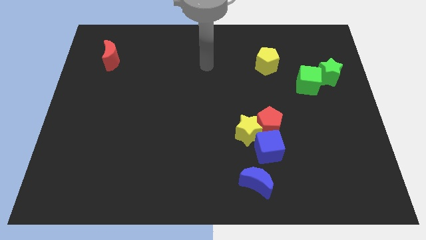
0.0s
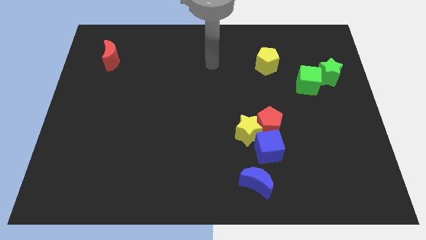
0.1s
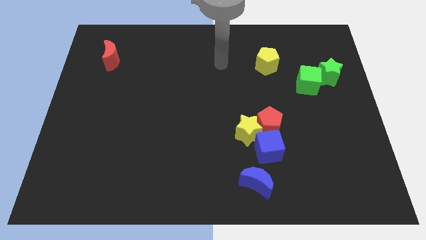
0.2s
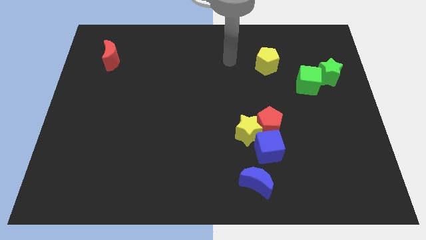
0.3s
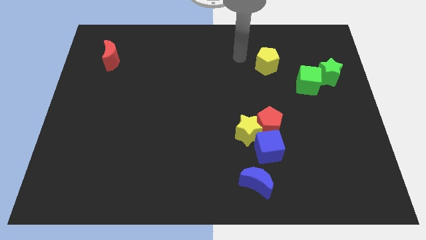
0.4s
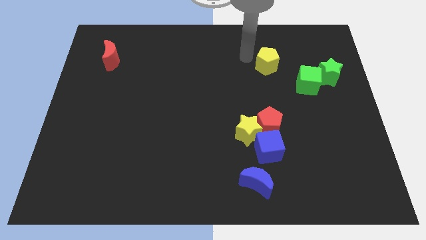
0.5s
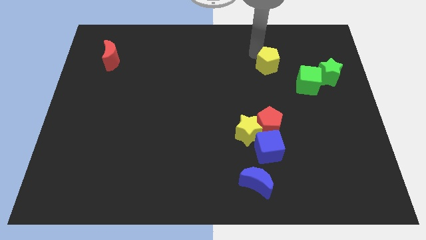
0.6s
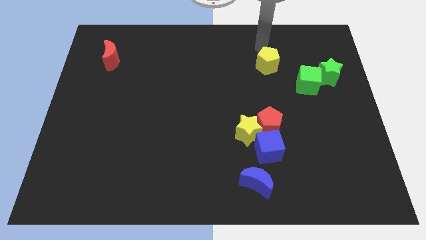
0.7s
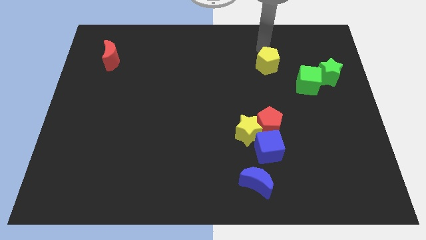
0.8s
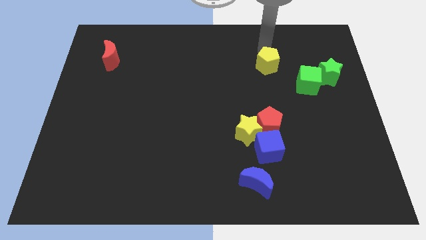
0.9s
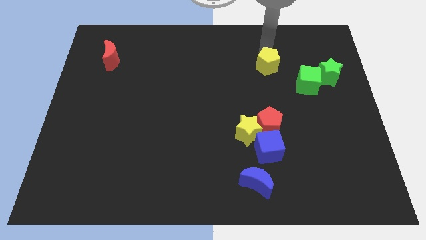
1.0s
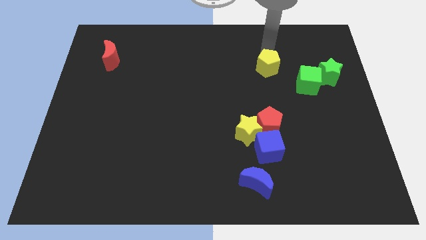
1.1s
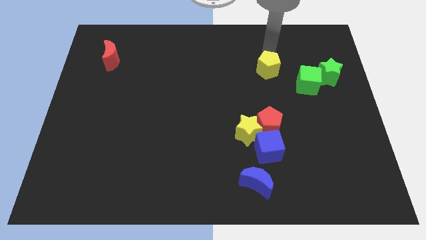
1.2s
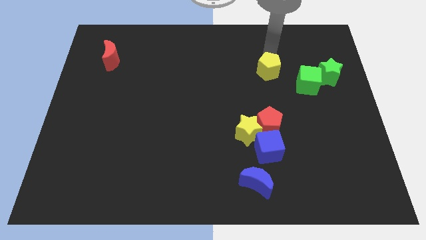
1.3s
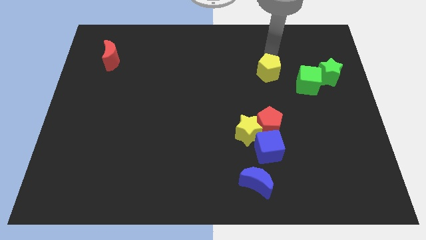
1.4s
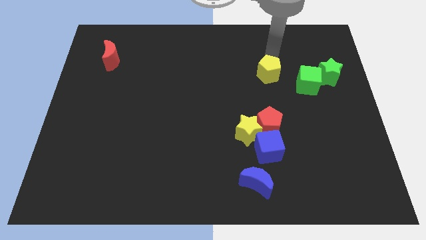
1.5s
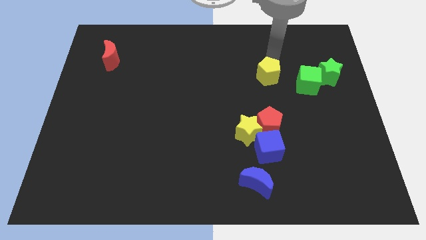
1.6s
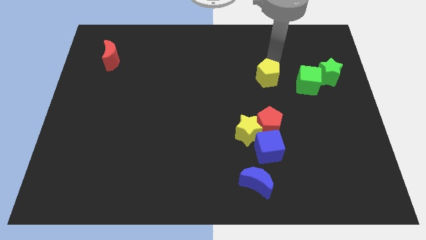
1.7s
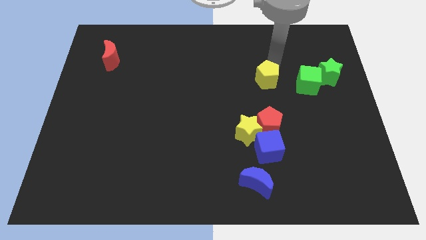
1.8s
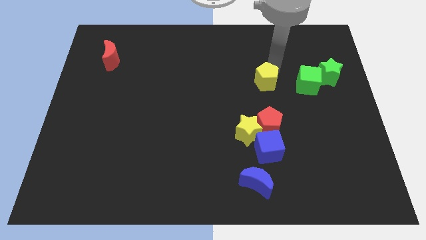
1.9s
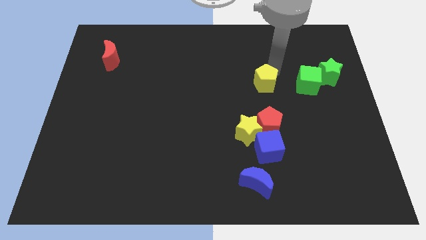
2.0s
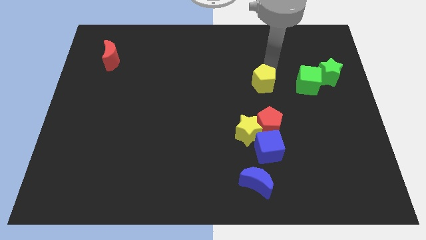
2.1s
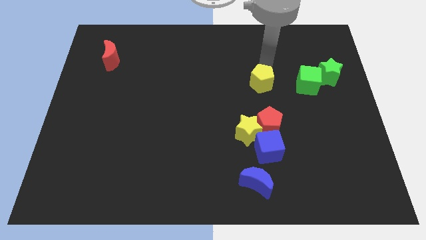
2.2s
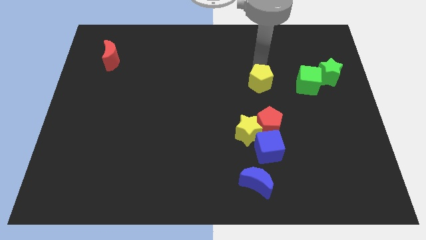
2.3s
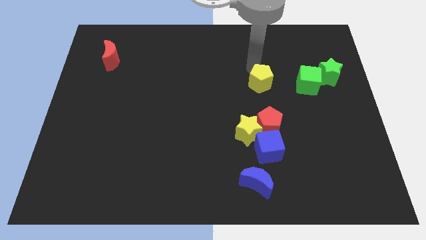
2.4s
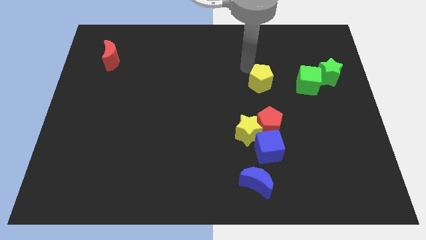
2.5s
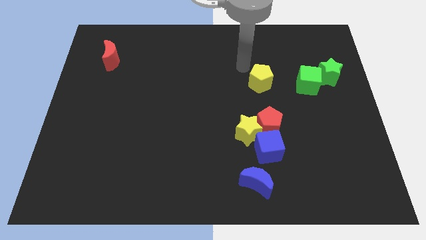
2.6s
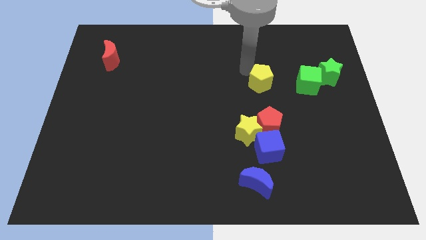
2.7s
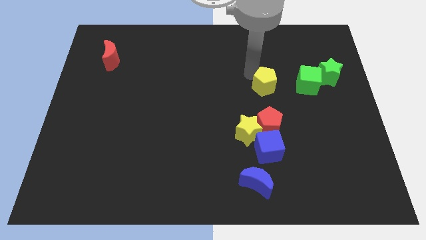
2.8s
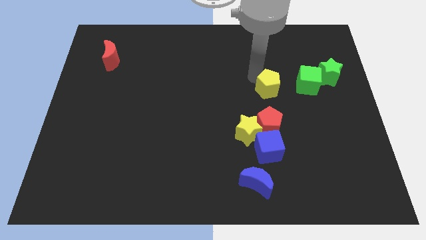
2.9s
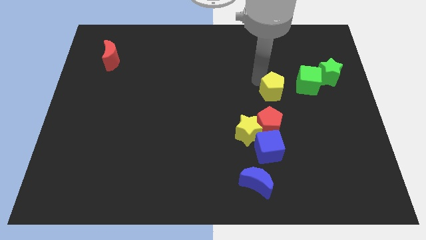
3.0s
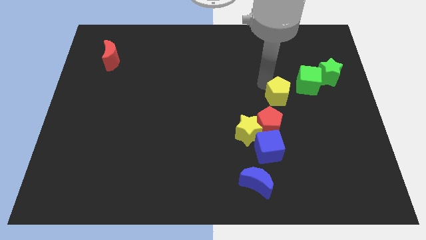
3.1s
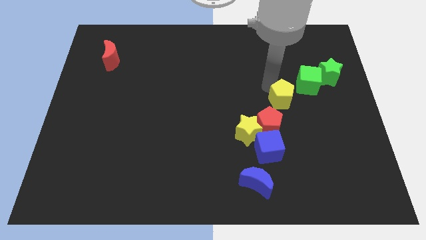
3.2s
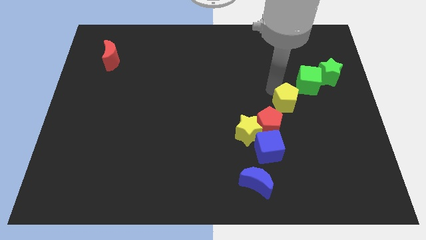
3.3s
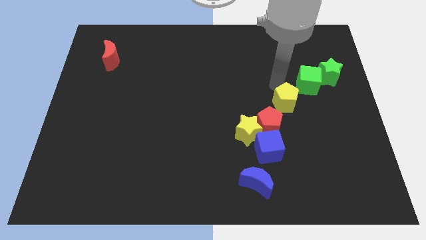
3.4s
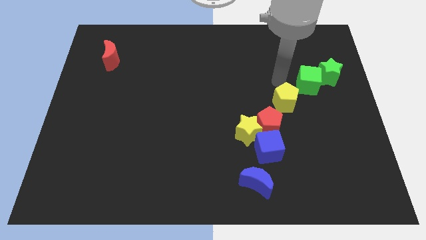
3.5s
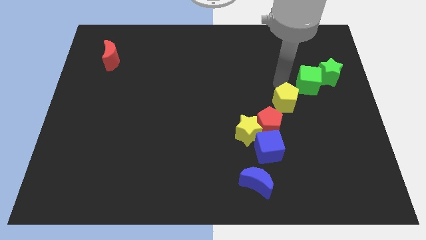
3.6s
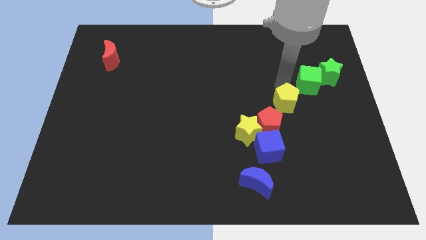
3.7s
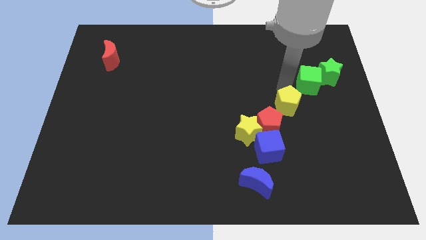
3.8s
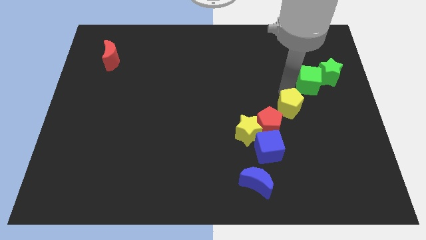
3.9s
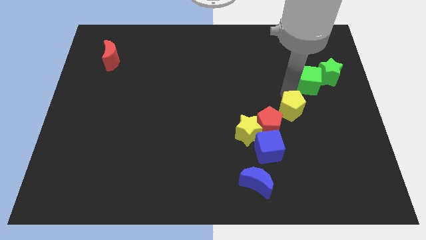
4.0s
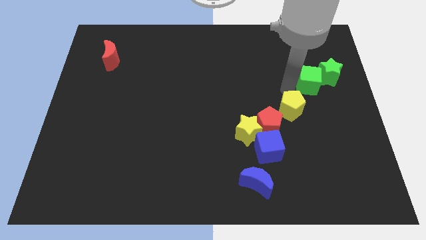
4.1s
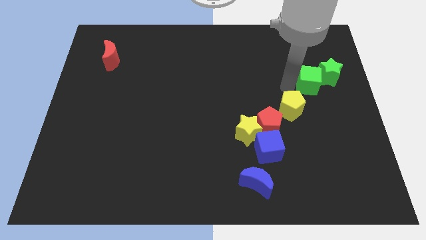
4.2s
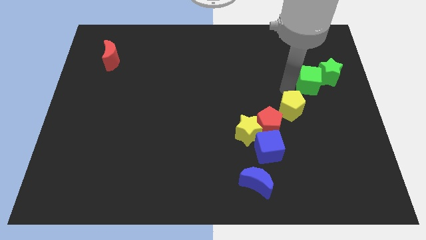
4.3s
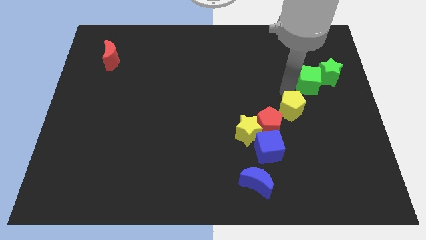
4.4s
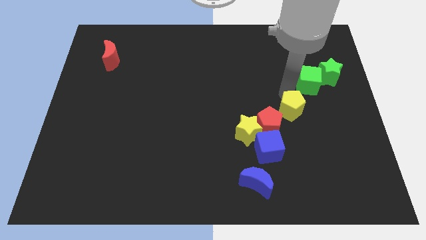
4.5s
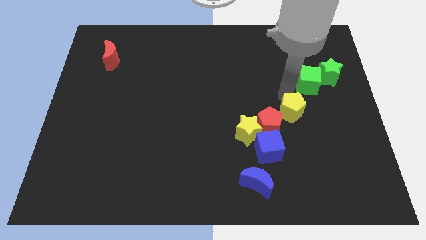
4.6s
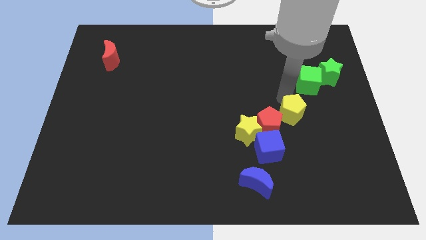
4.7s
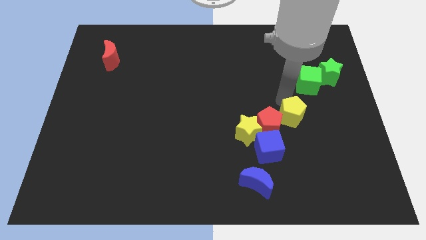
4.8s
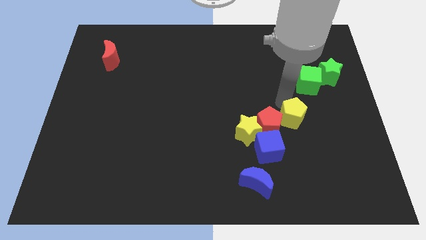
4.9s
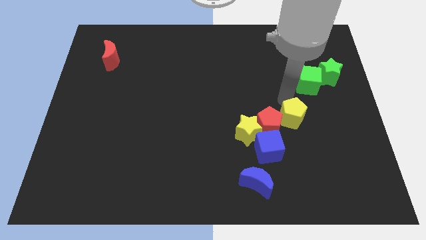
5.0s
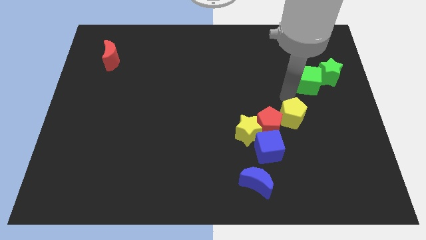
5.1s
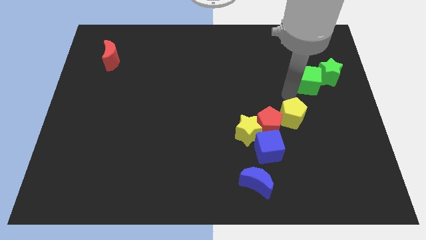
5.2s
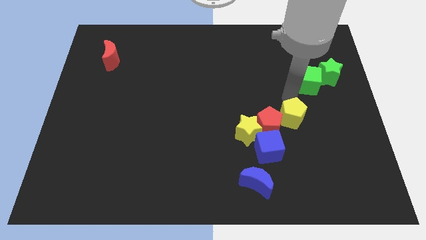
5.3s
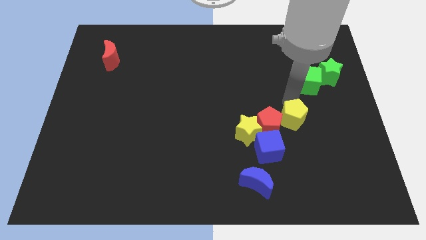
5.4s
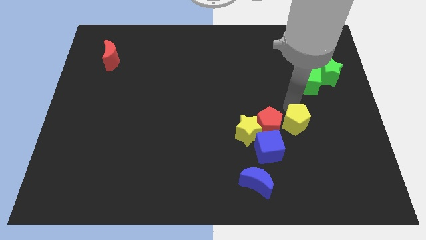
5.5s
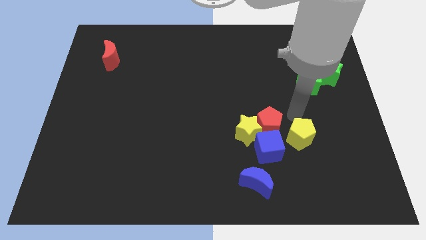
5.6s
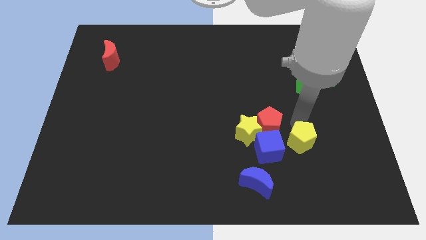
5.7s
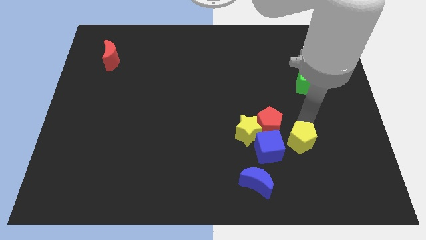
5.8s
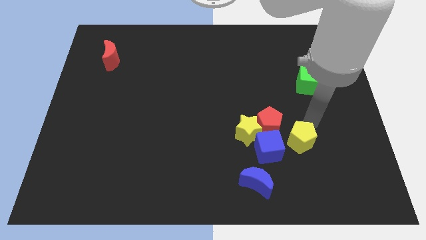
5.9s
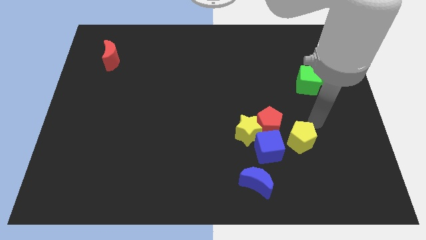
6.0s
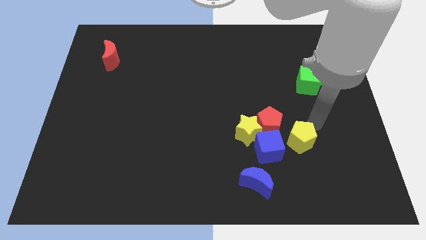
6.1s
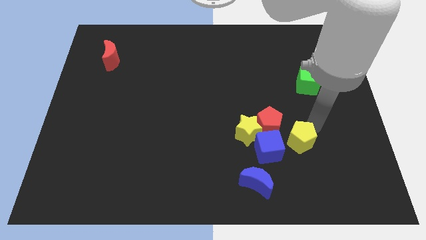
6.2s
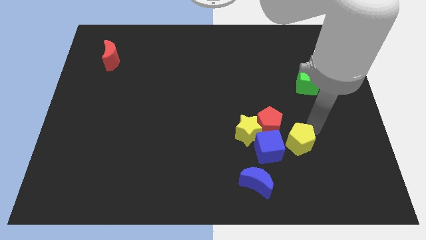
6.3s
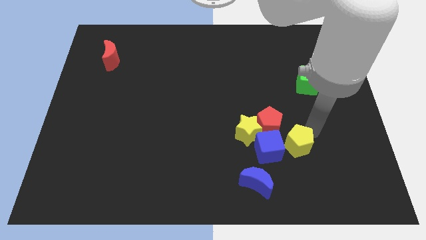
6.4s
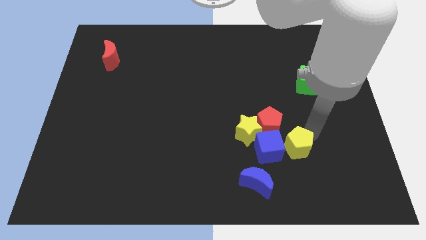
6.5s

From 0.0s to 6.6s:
slide the yellow pentagon to the top right side of the blue moon

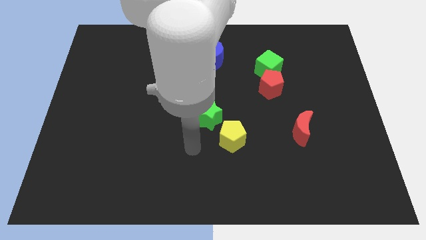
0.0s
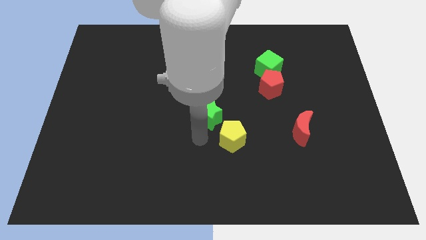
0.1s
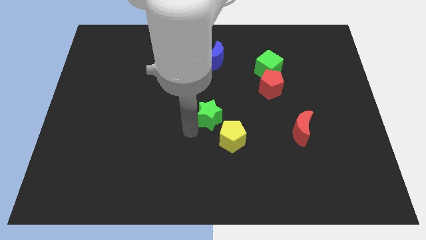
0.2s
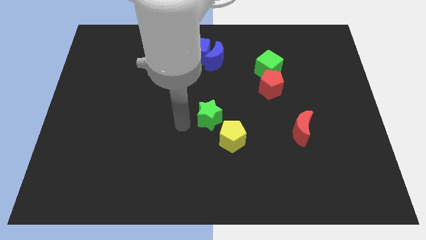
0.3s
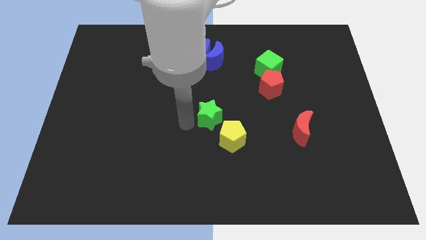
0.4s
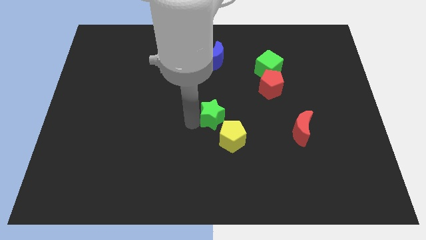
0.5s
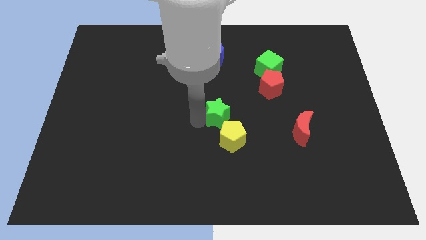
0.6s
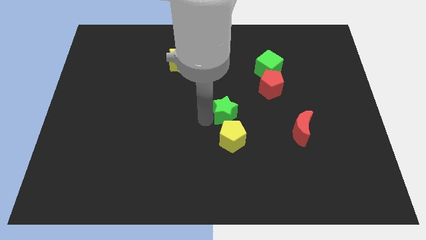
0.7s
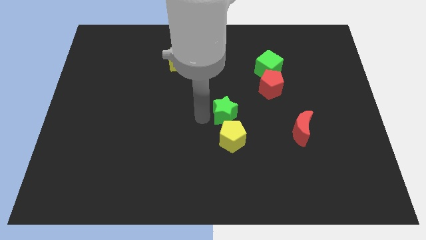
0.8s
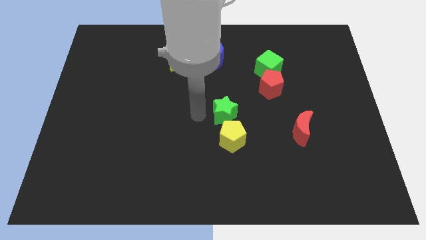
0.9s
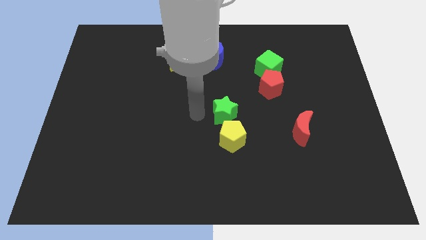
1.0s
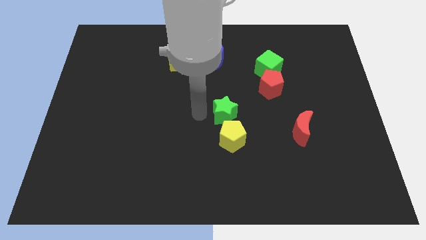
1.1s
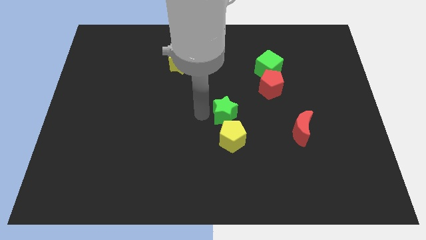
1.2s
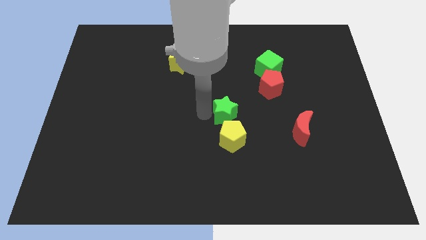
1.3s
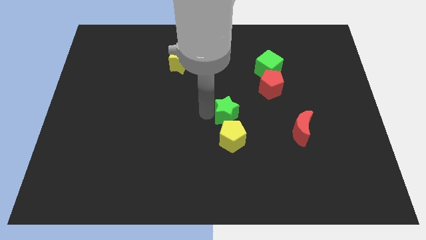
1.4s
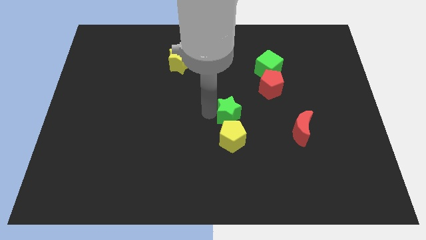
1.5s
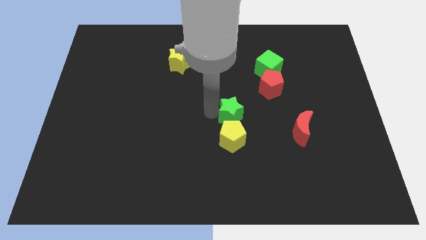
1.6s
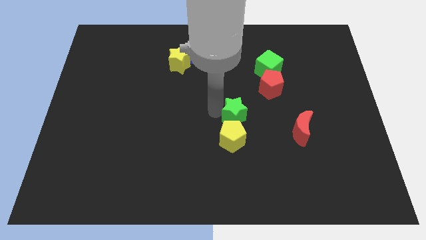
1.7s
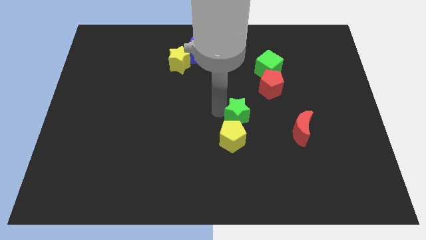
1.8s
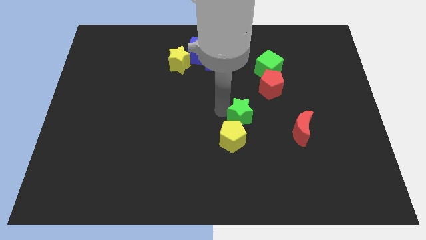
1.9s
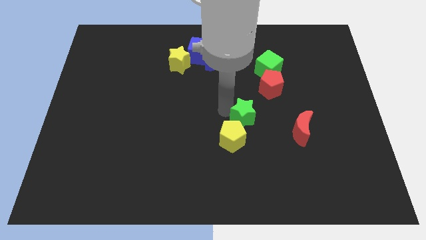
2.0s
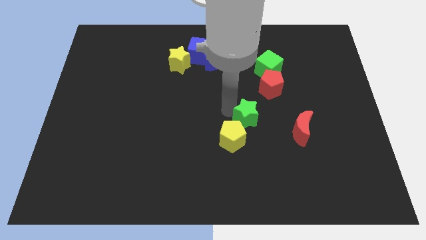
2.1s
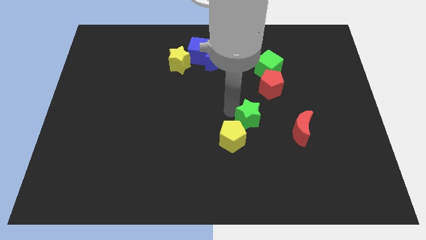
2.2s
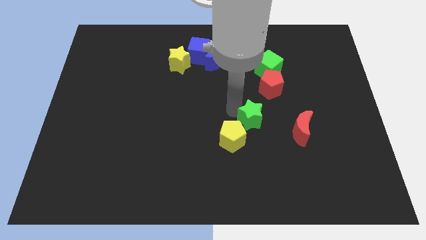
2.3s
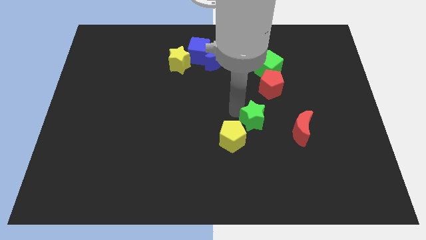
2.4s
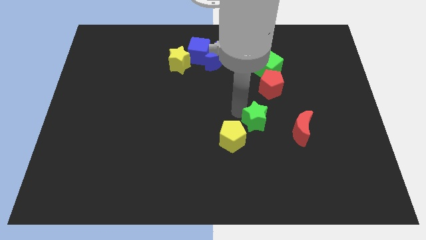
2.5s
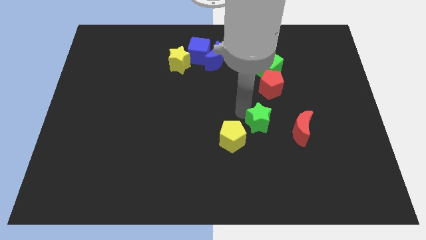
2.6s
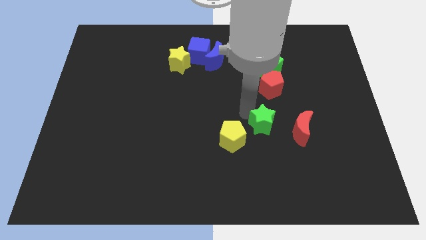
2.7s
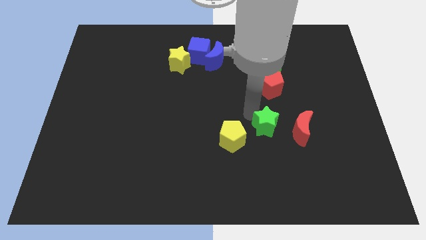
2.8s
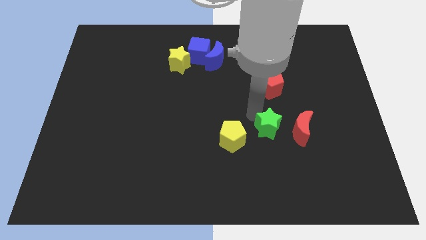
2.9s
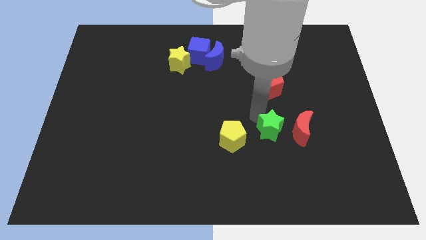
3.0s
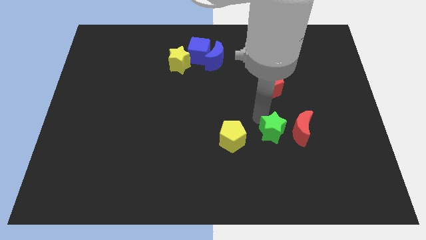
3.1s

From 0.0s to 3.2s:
move the green star to the bottom left of the red moon
